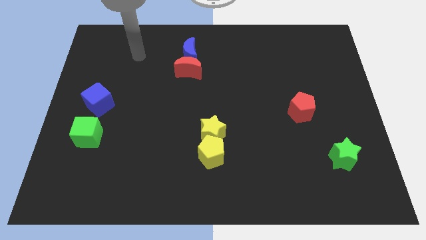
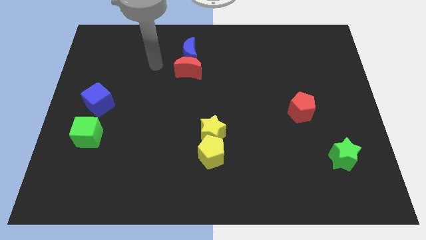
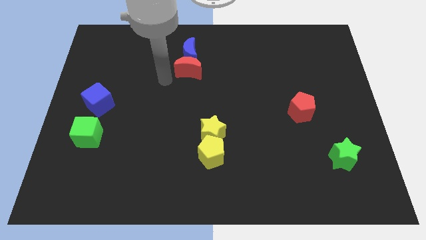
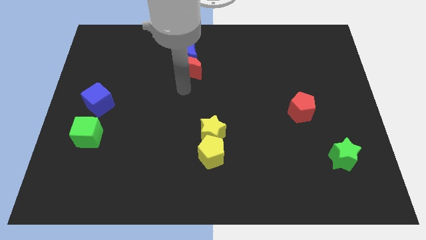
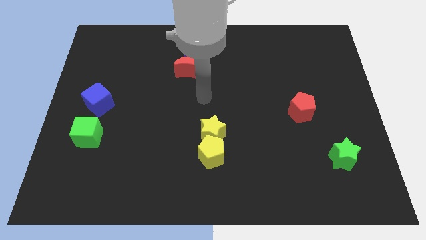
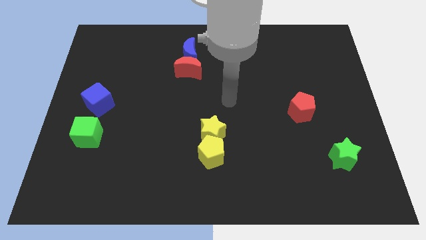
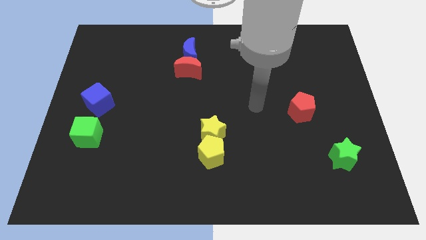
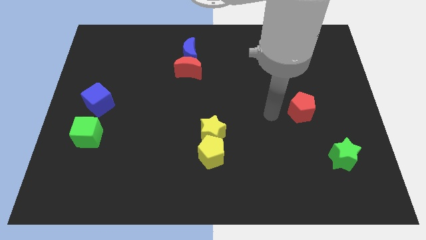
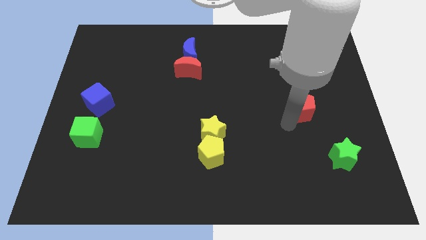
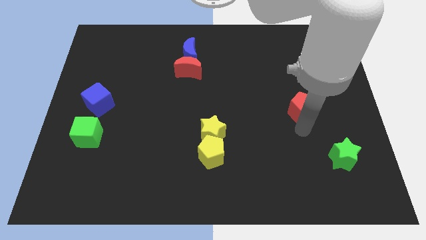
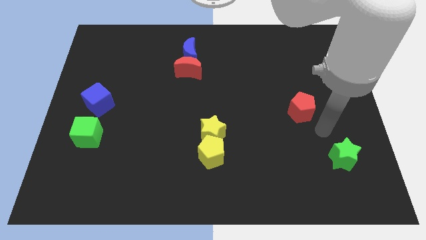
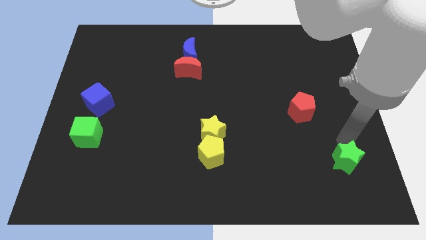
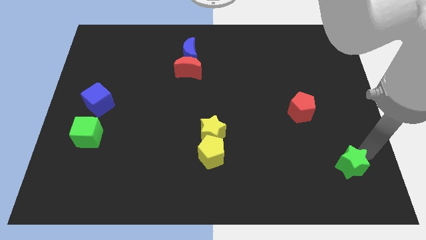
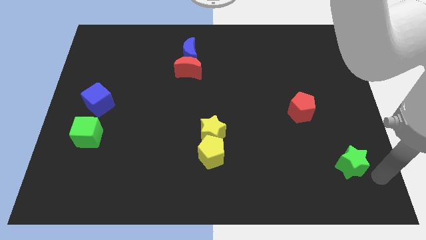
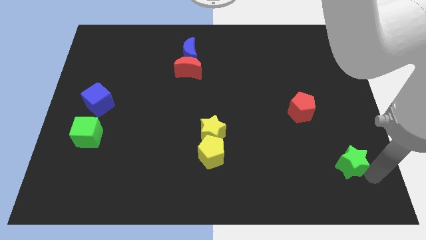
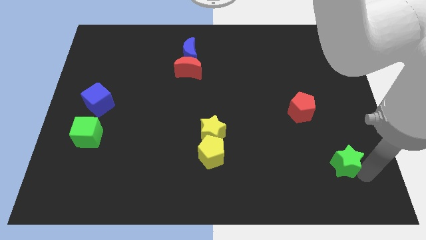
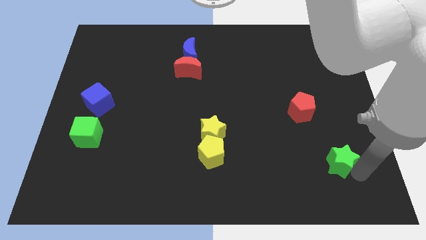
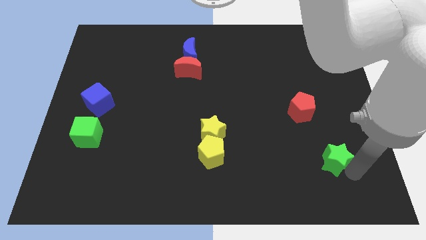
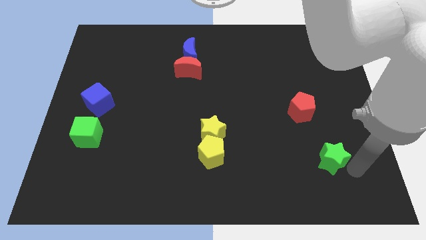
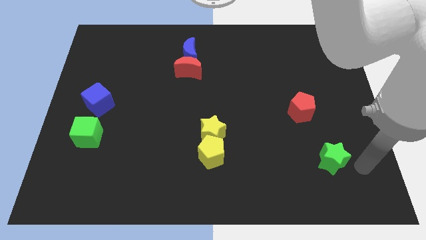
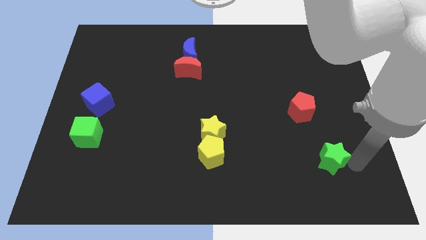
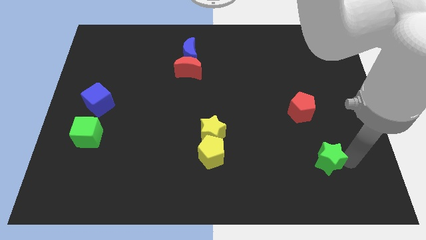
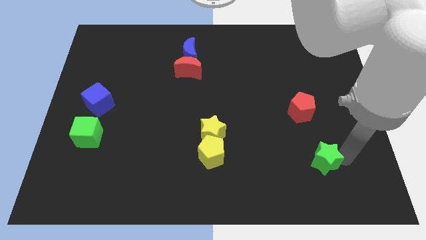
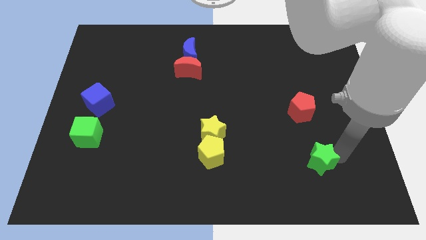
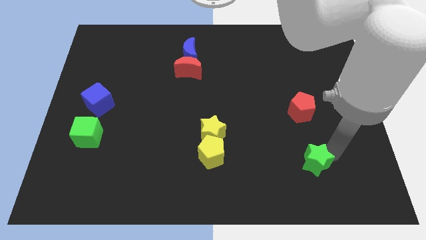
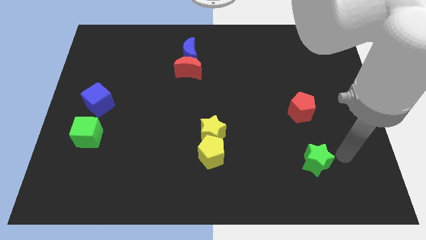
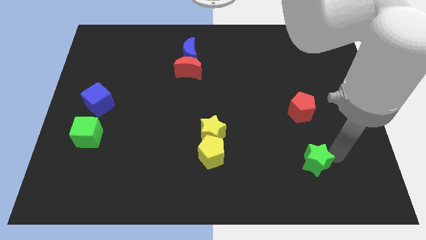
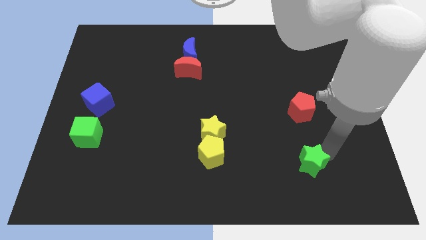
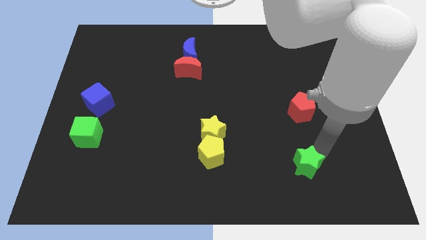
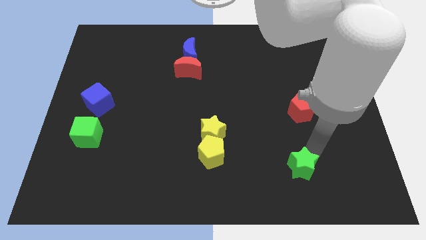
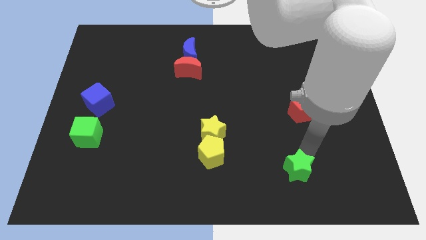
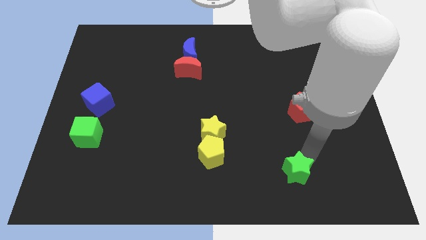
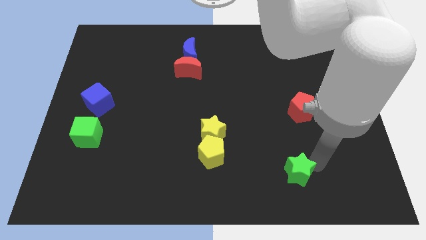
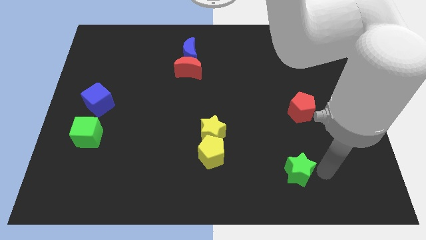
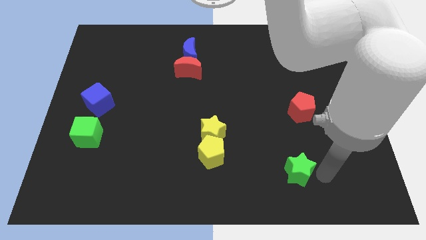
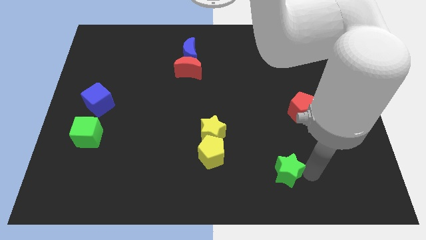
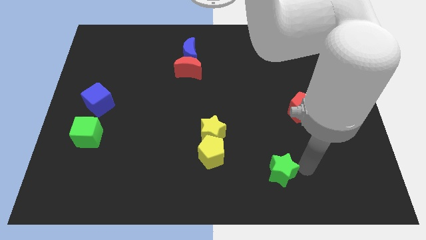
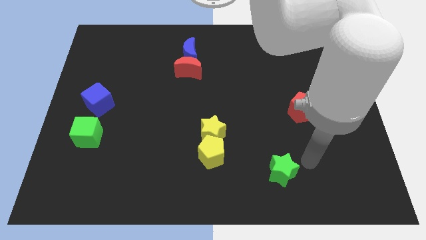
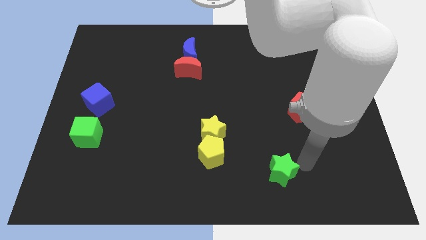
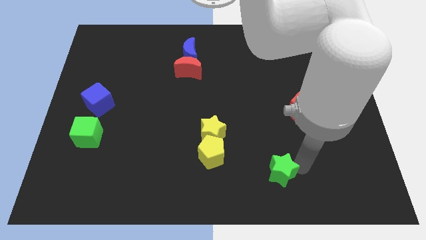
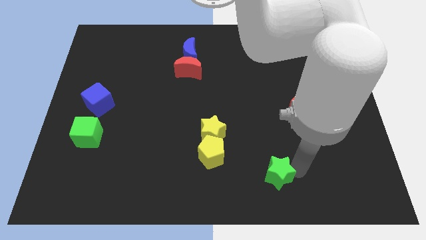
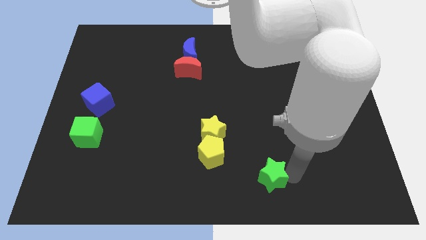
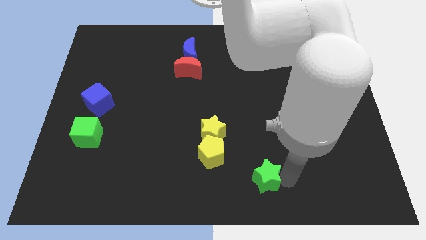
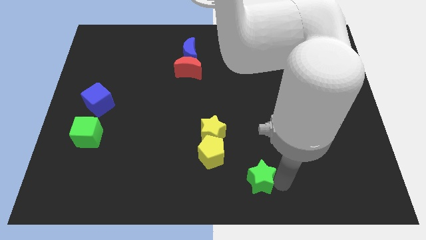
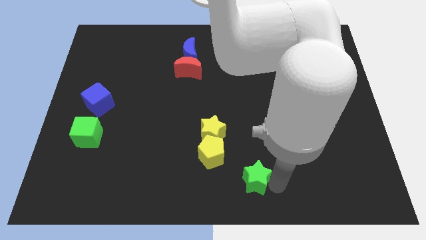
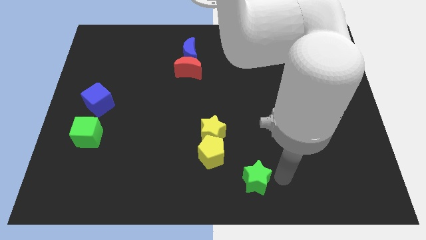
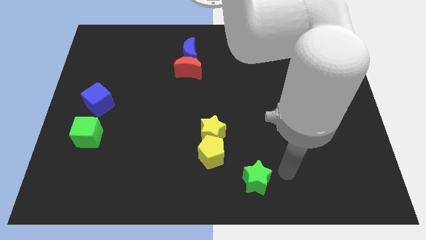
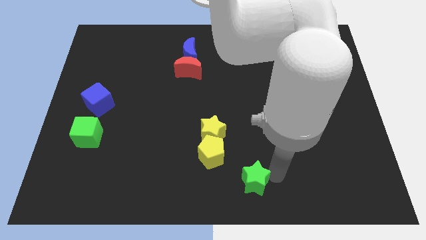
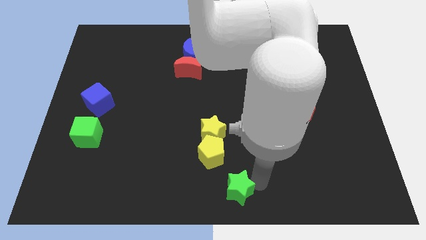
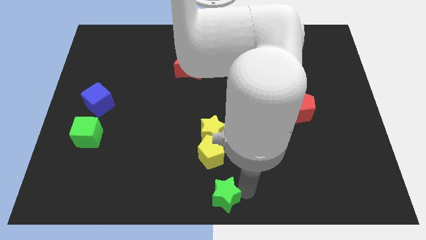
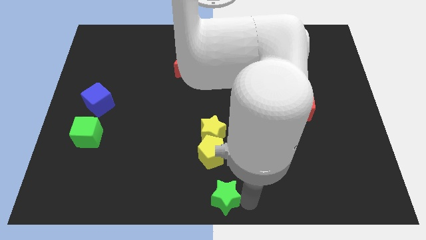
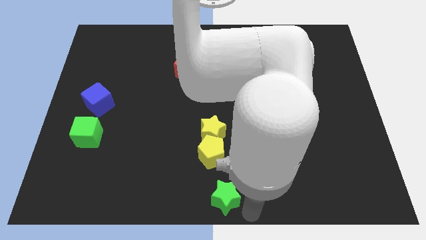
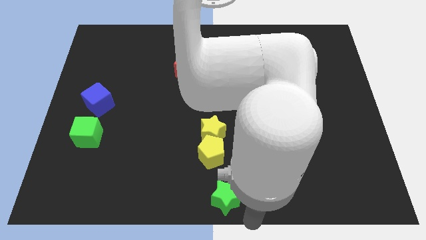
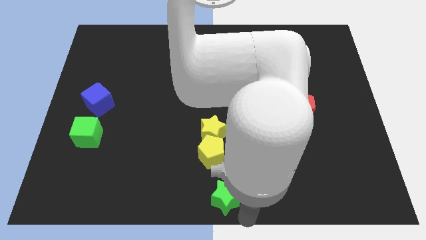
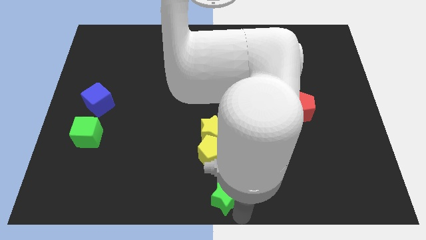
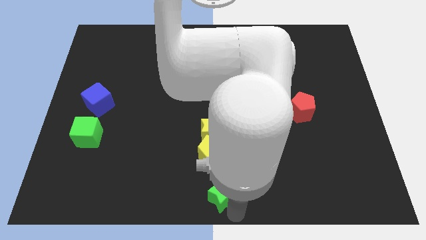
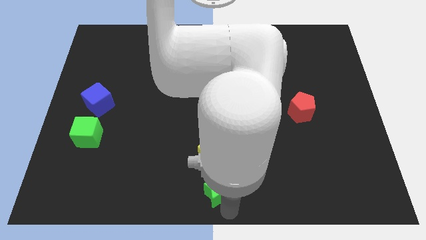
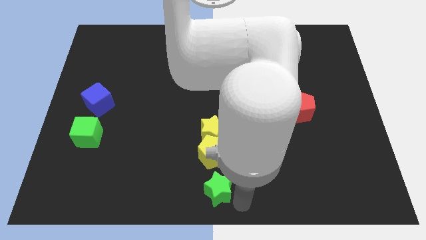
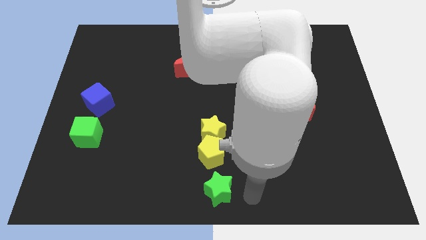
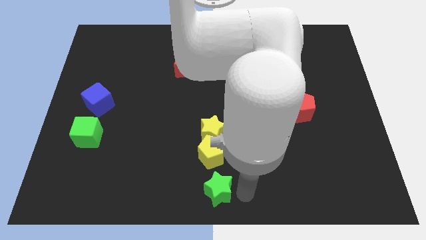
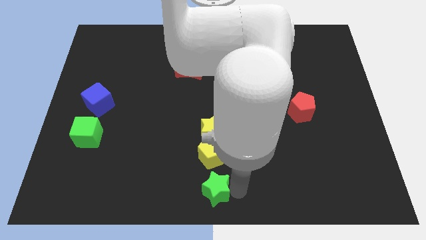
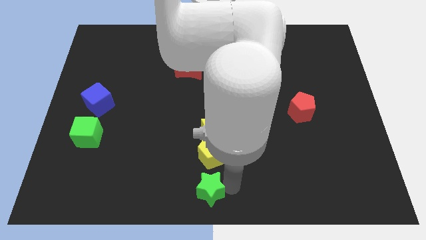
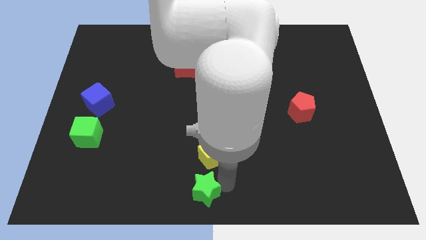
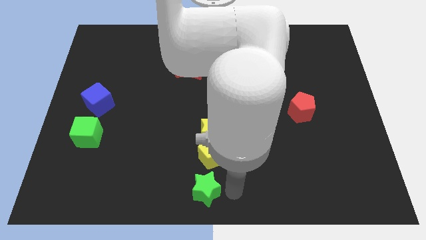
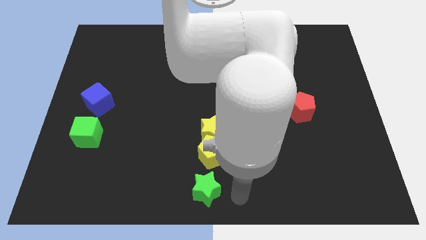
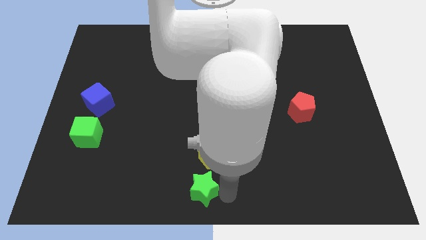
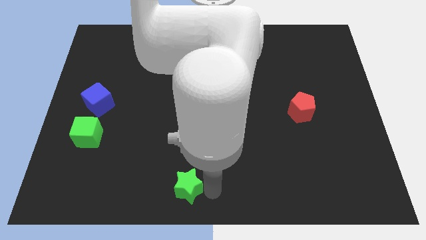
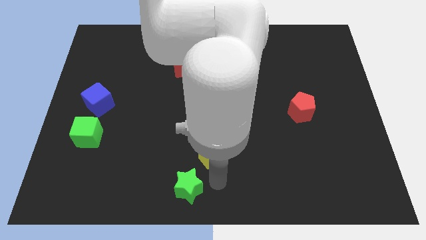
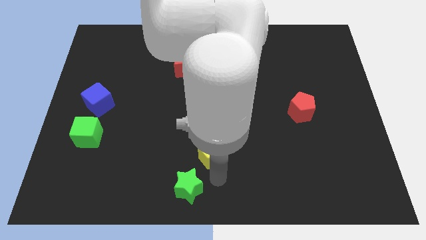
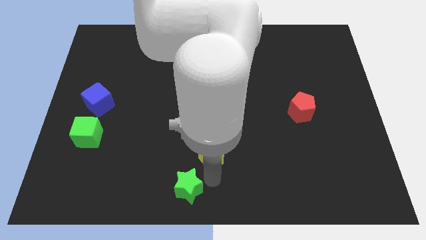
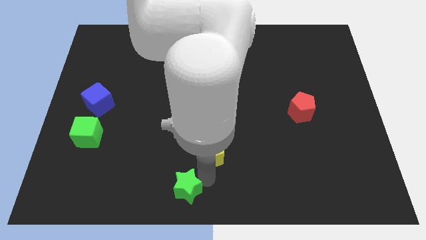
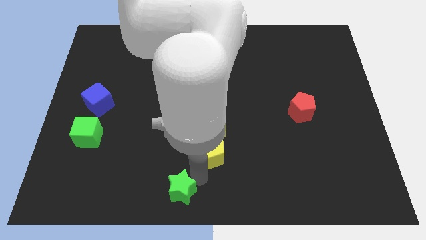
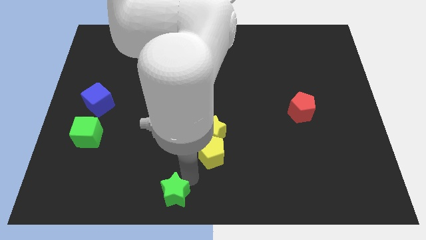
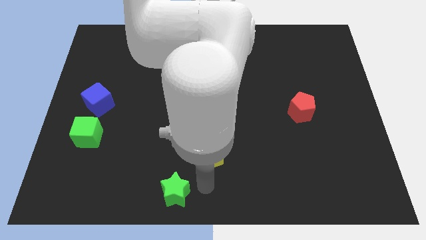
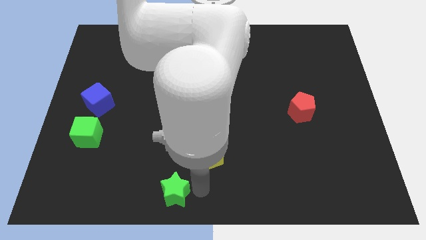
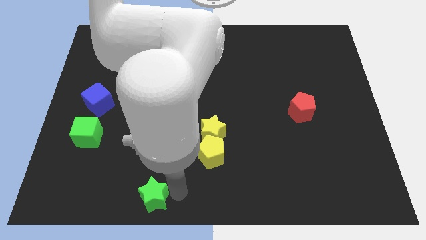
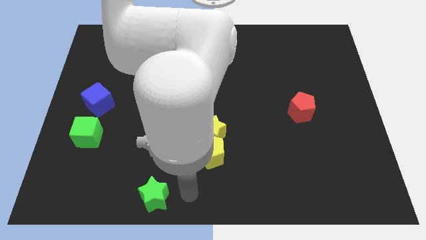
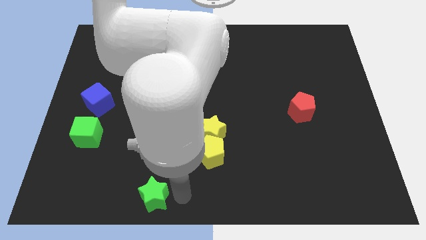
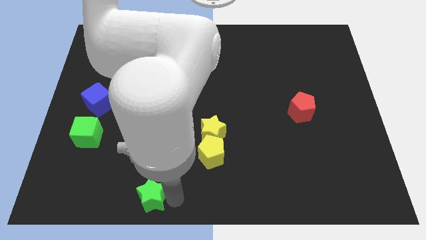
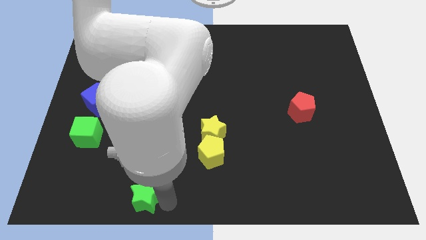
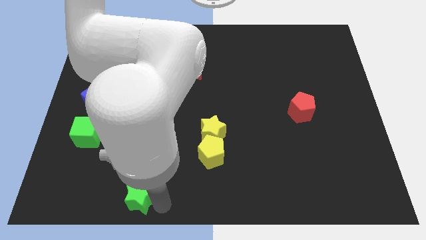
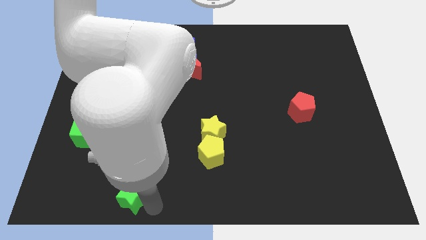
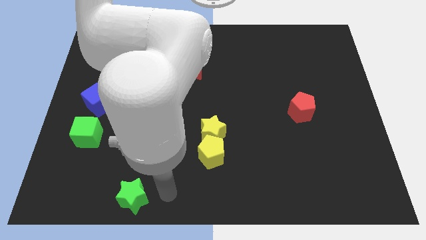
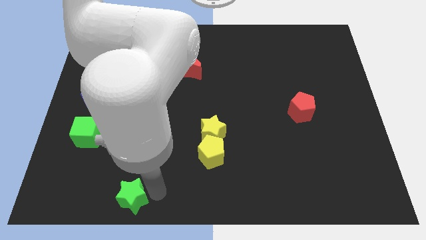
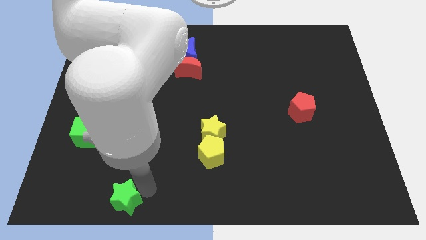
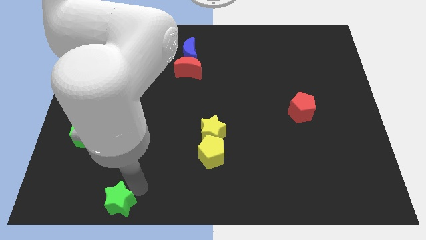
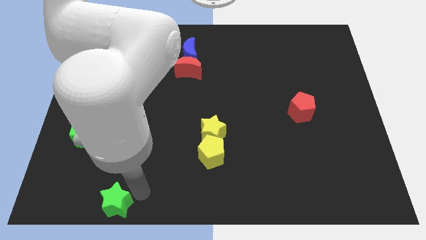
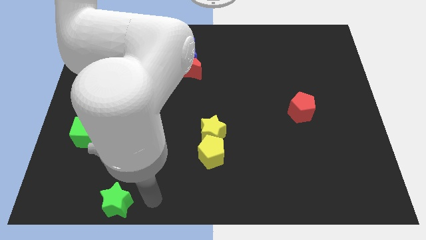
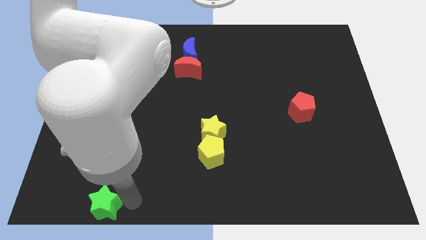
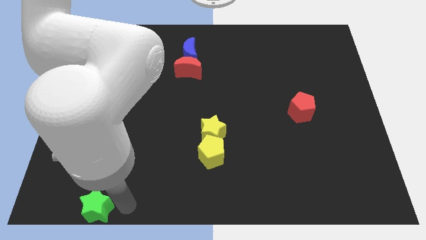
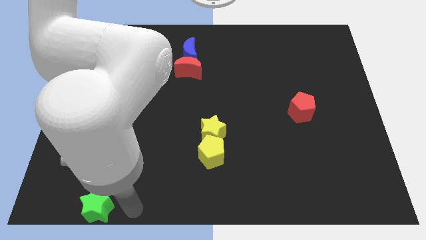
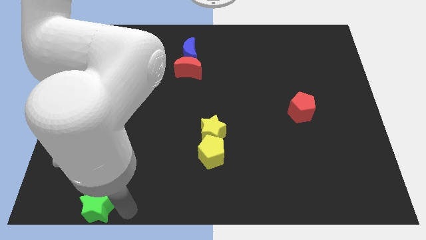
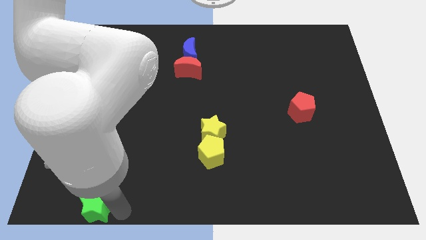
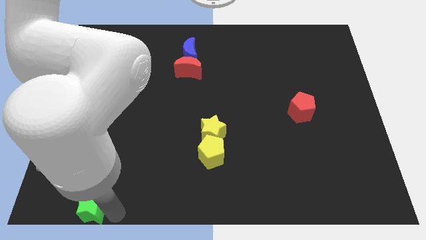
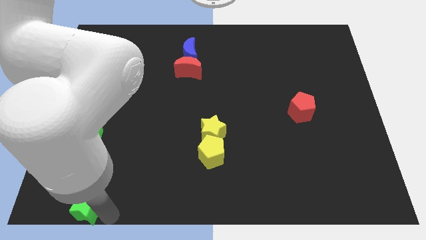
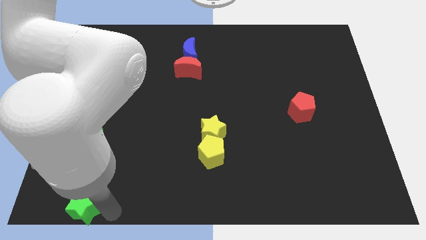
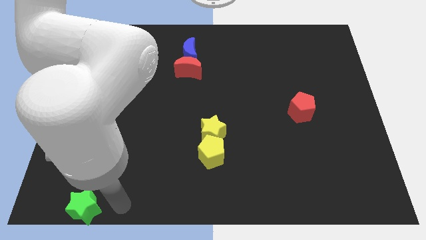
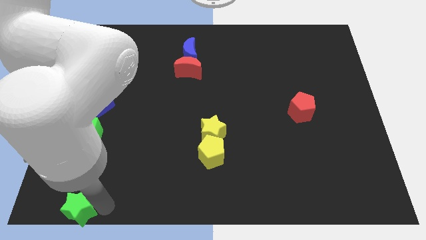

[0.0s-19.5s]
put the green star to the lower left corner
